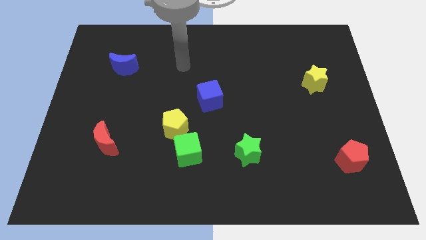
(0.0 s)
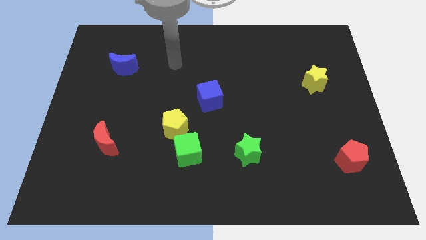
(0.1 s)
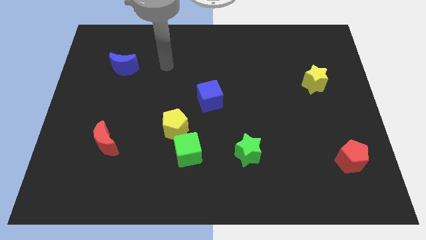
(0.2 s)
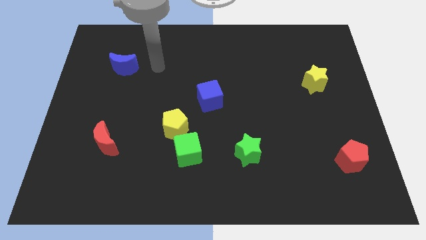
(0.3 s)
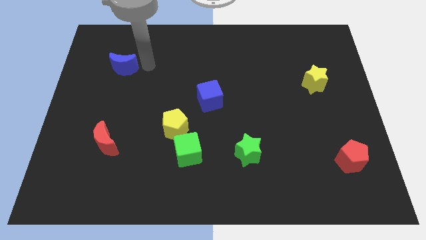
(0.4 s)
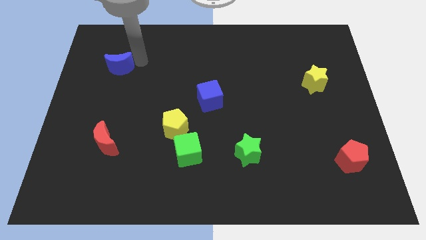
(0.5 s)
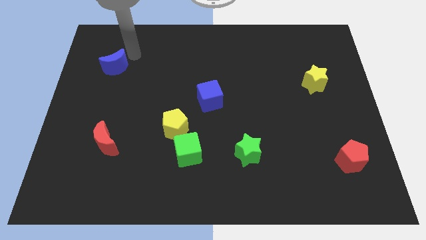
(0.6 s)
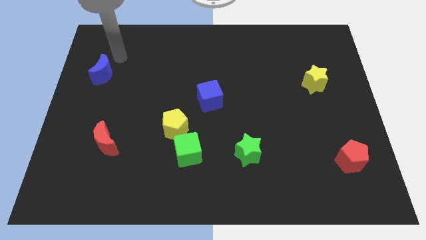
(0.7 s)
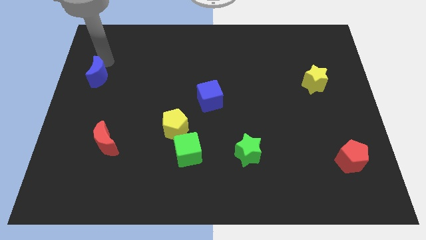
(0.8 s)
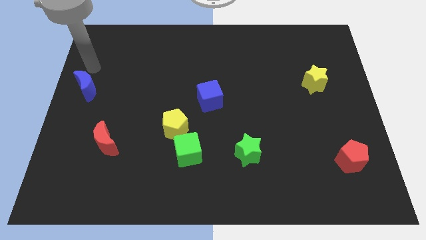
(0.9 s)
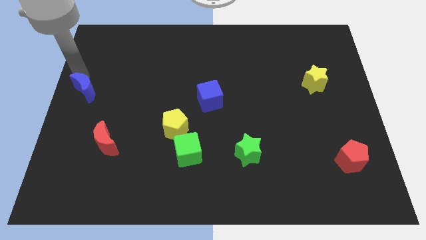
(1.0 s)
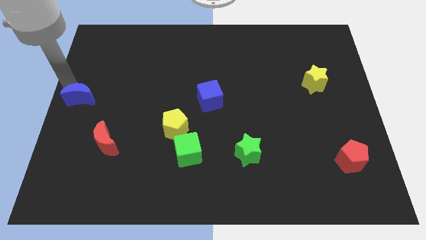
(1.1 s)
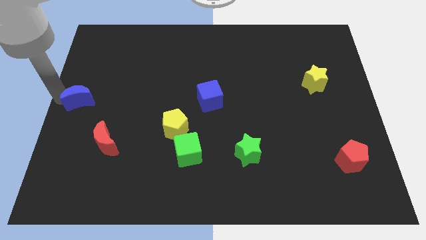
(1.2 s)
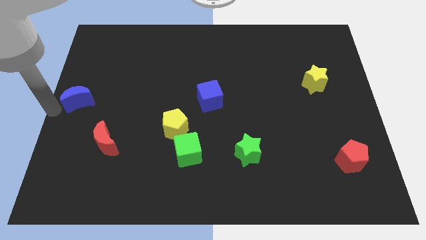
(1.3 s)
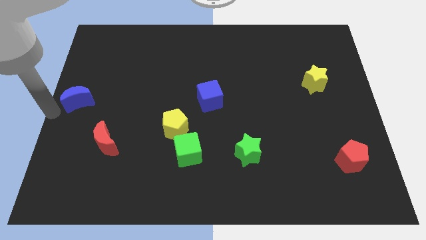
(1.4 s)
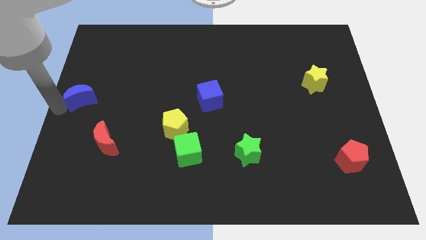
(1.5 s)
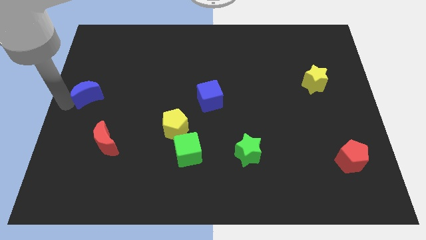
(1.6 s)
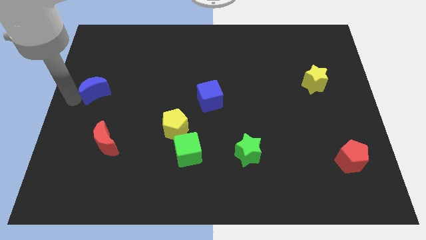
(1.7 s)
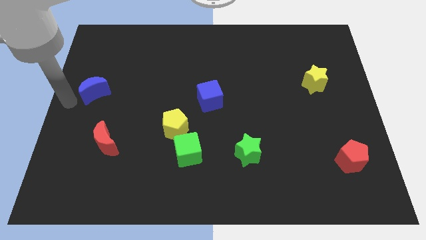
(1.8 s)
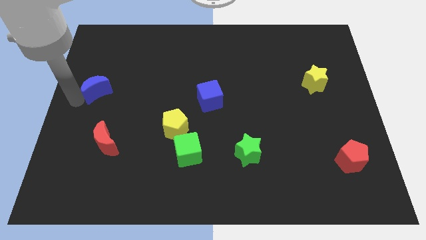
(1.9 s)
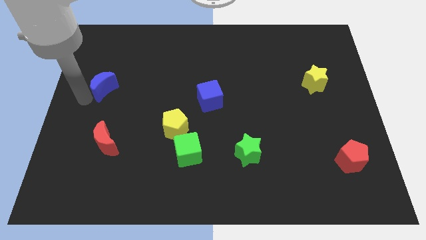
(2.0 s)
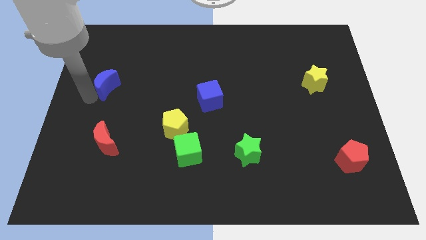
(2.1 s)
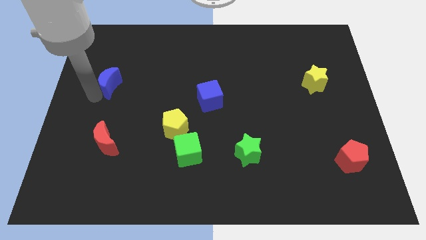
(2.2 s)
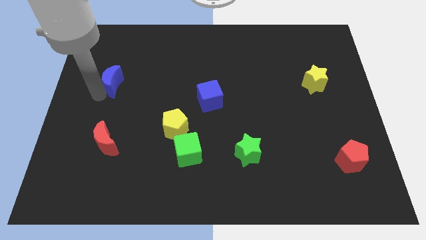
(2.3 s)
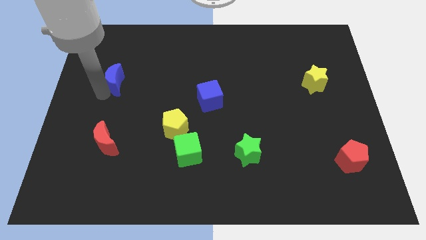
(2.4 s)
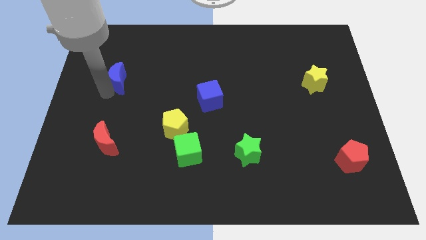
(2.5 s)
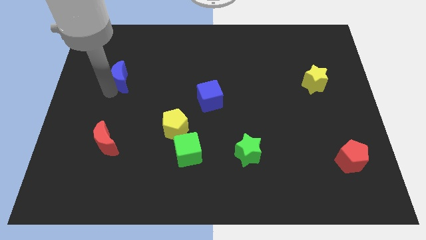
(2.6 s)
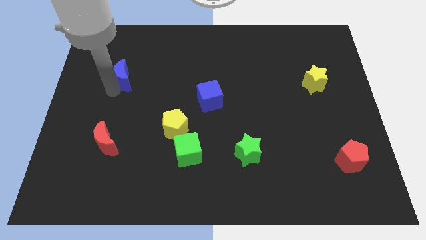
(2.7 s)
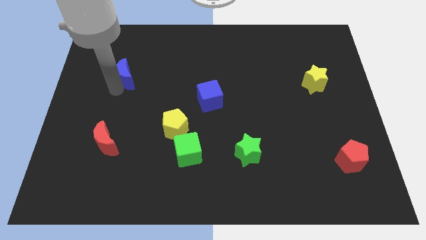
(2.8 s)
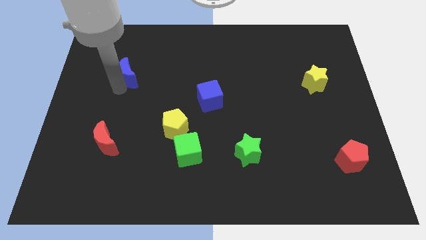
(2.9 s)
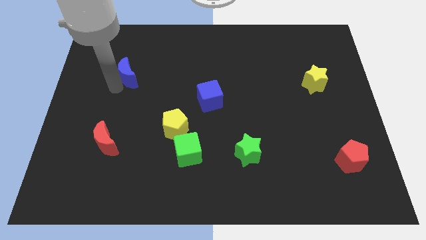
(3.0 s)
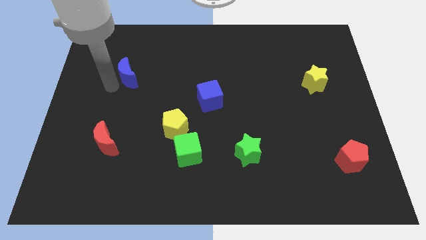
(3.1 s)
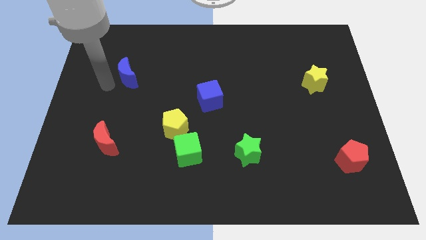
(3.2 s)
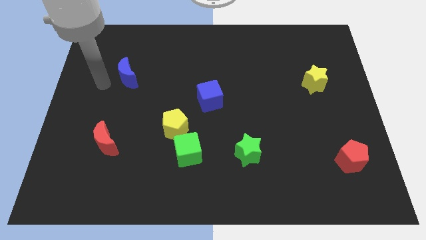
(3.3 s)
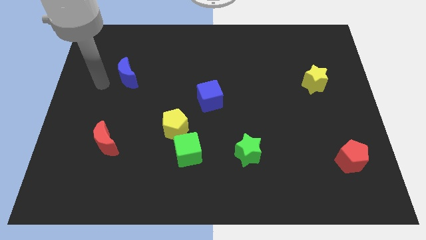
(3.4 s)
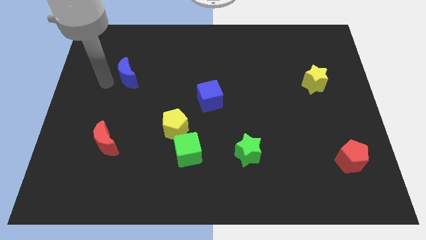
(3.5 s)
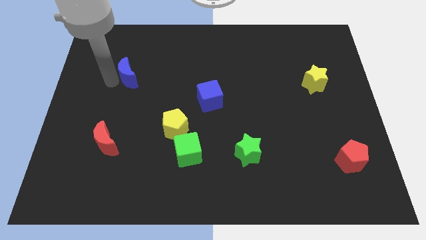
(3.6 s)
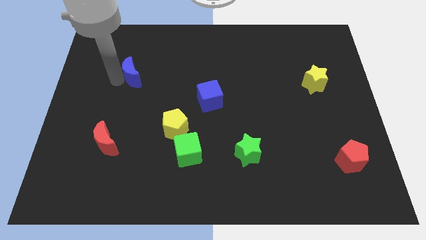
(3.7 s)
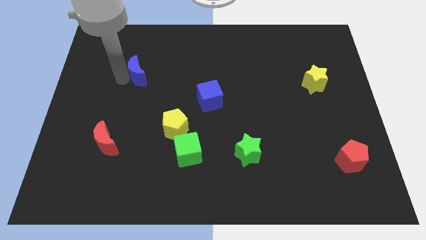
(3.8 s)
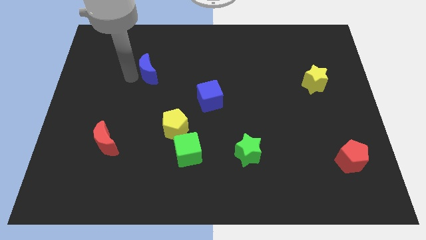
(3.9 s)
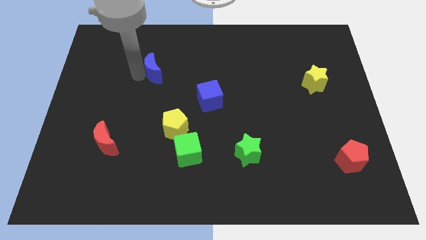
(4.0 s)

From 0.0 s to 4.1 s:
slide the blue moon slightly to the right

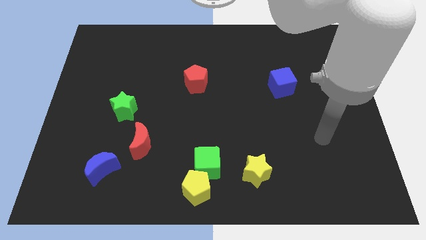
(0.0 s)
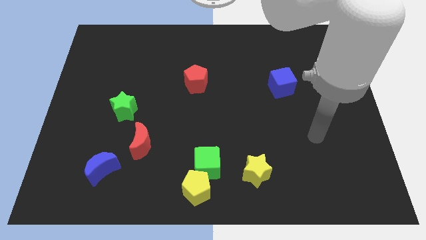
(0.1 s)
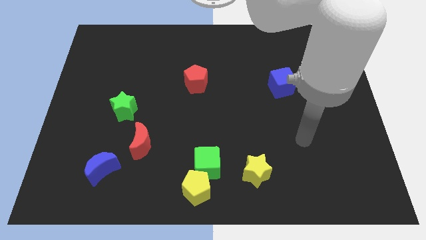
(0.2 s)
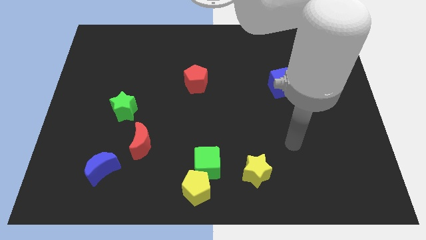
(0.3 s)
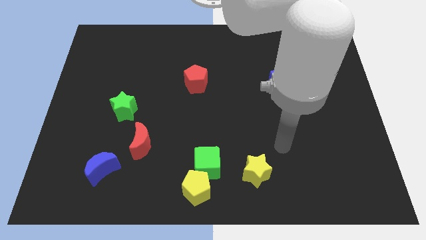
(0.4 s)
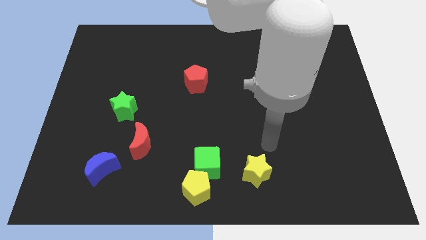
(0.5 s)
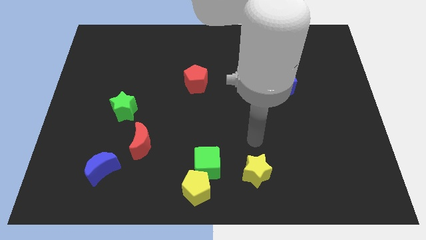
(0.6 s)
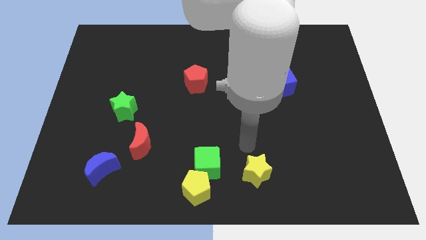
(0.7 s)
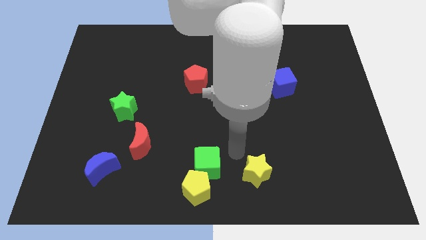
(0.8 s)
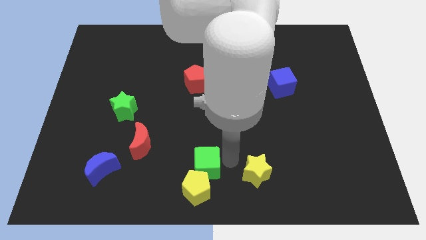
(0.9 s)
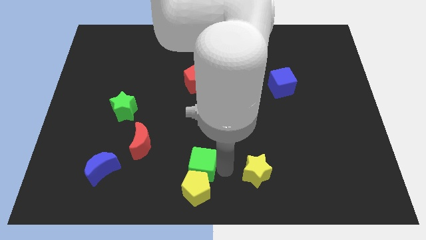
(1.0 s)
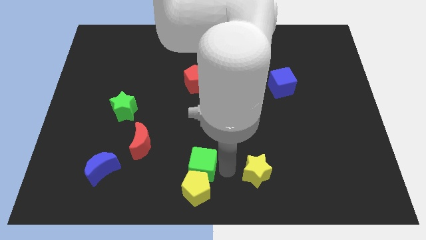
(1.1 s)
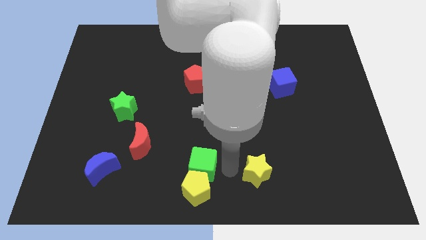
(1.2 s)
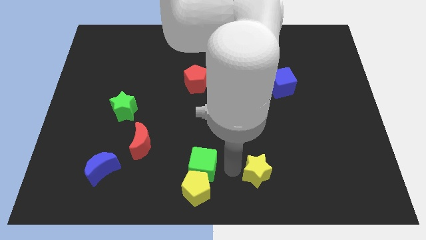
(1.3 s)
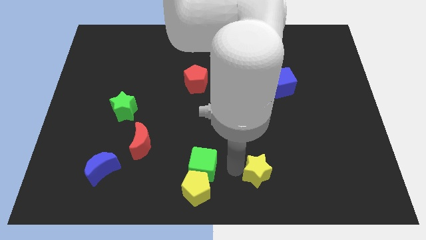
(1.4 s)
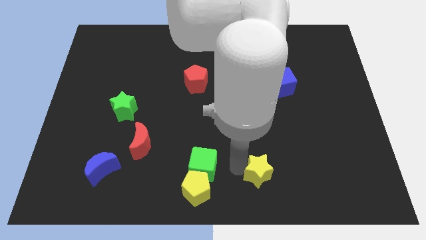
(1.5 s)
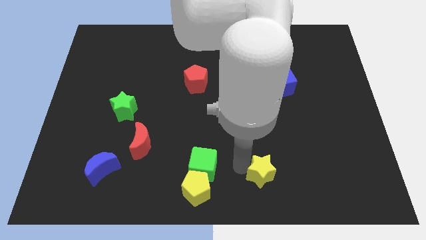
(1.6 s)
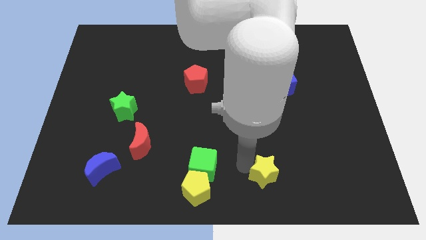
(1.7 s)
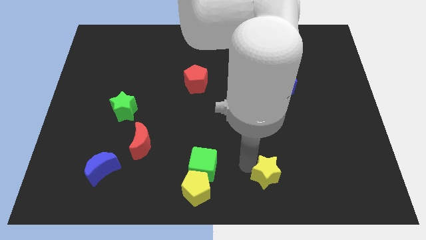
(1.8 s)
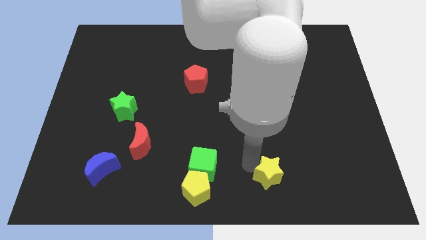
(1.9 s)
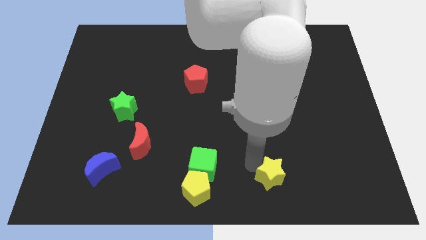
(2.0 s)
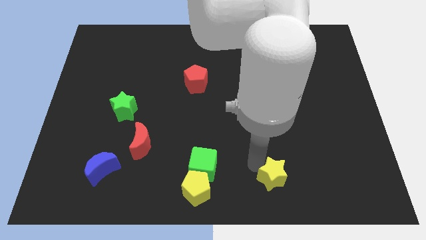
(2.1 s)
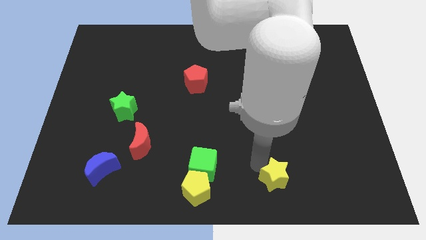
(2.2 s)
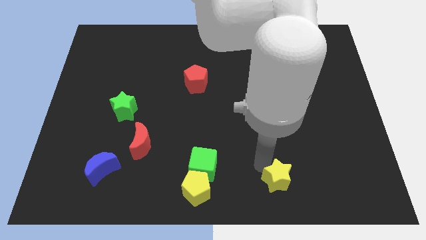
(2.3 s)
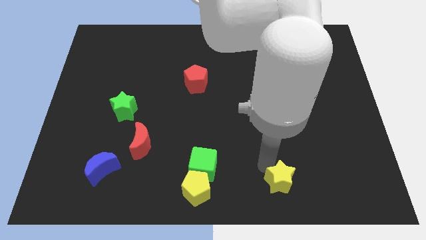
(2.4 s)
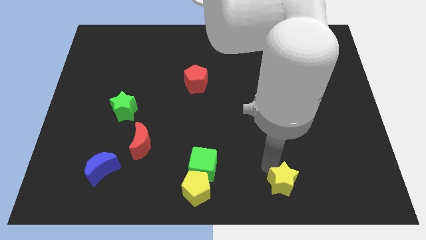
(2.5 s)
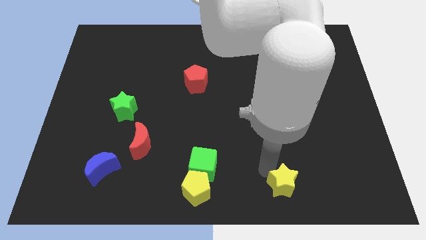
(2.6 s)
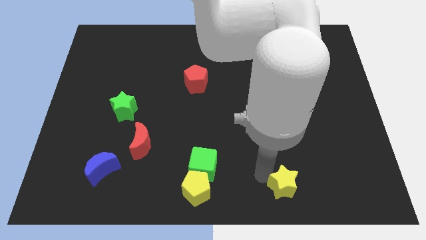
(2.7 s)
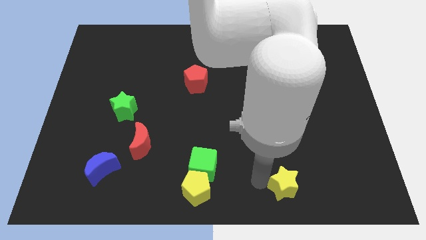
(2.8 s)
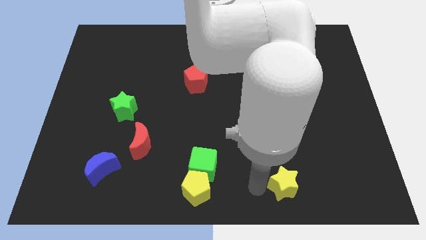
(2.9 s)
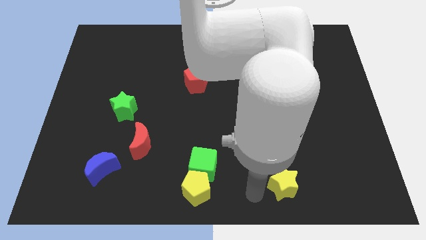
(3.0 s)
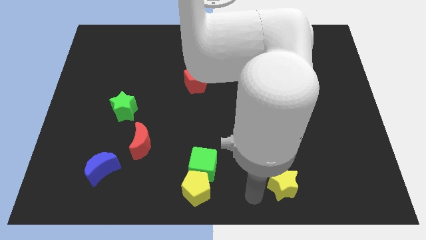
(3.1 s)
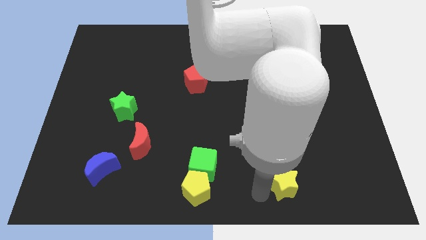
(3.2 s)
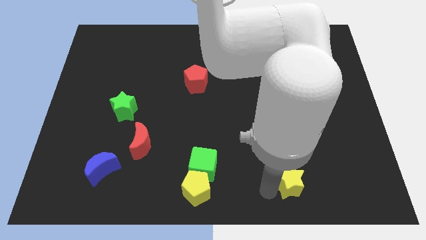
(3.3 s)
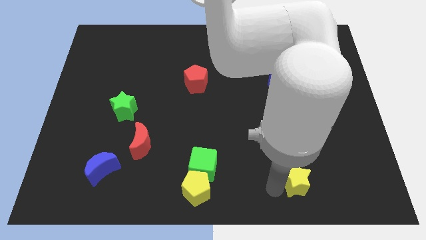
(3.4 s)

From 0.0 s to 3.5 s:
slightly move the yellow star right
